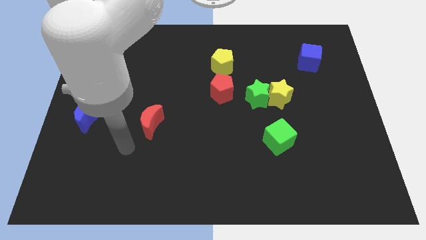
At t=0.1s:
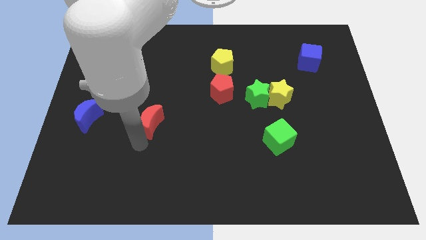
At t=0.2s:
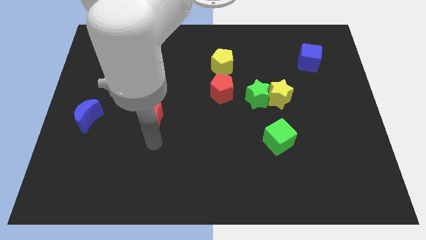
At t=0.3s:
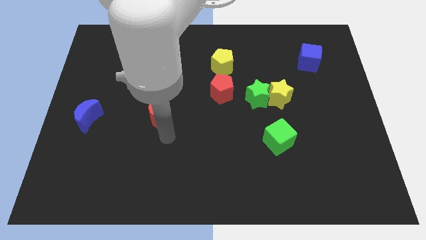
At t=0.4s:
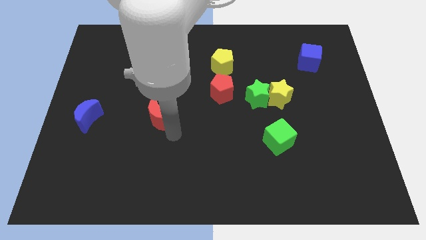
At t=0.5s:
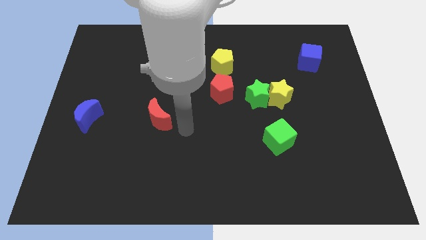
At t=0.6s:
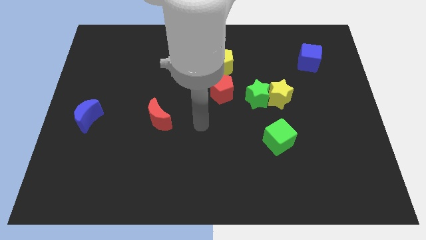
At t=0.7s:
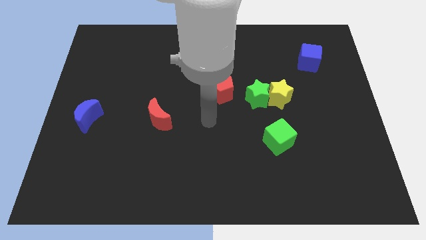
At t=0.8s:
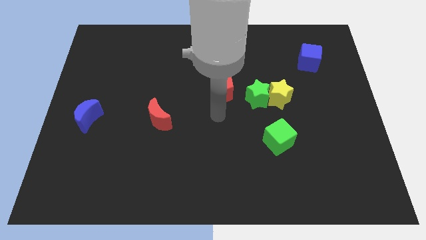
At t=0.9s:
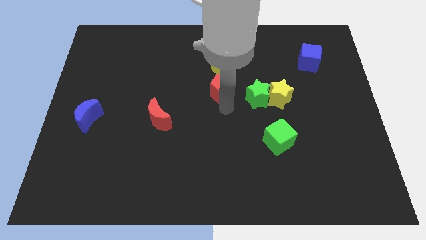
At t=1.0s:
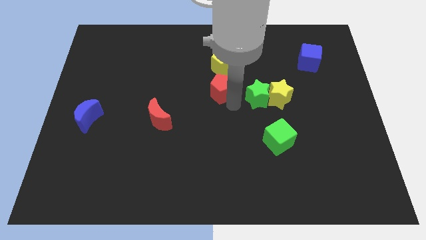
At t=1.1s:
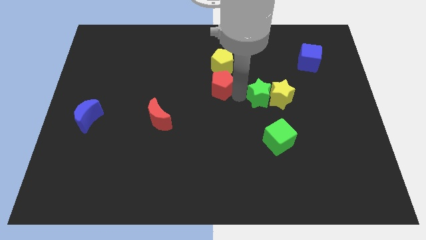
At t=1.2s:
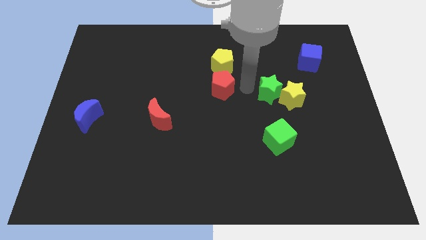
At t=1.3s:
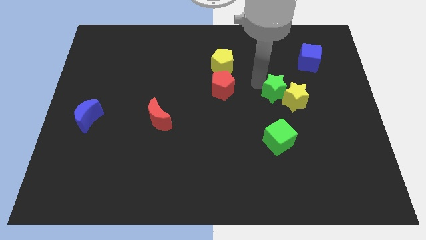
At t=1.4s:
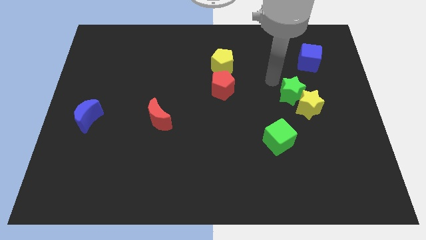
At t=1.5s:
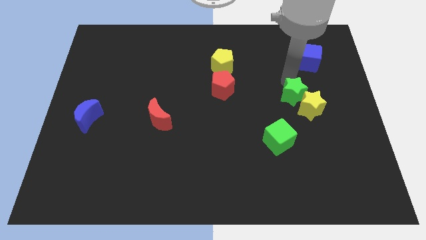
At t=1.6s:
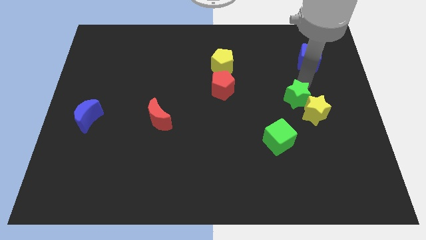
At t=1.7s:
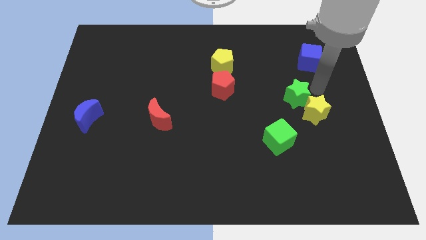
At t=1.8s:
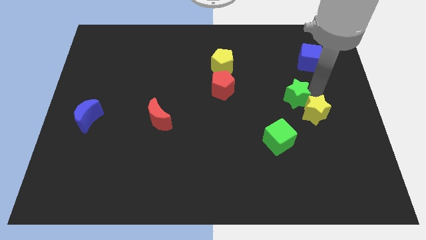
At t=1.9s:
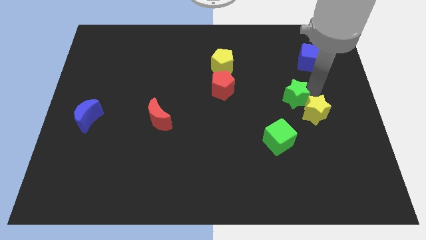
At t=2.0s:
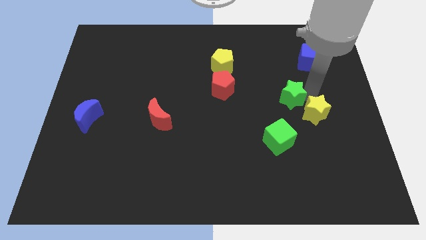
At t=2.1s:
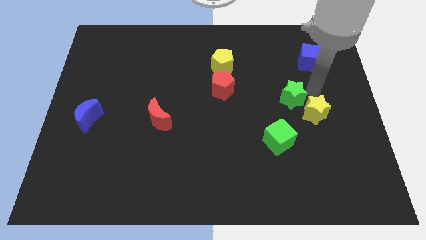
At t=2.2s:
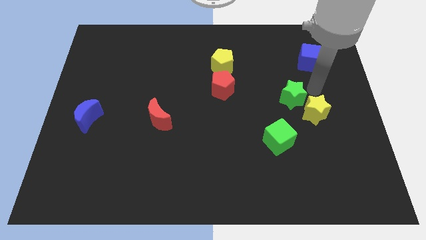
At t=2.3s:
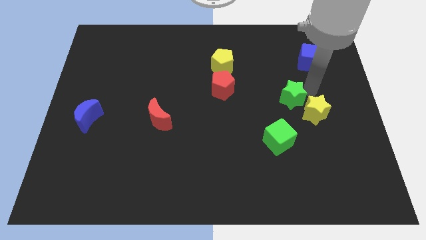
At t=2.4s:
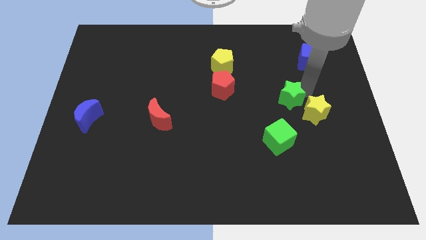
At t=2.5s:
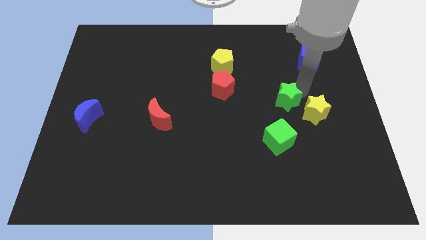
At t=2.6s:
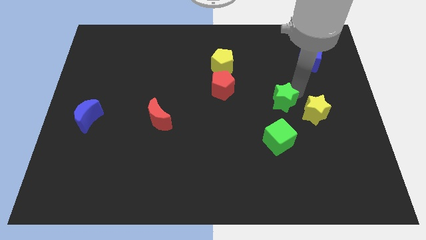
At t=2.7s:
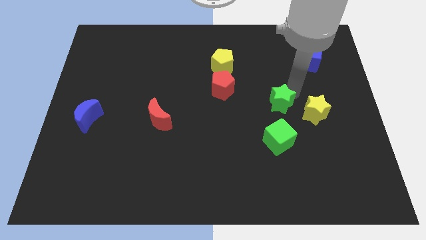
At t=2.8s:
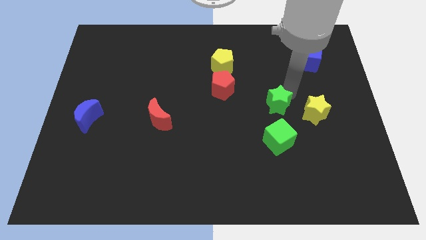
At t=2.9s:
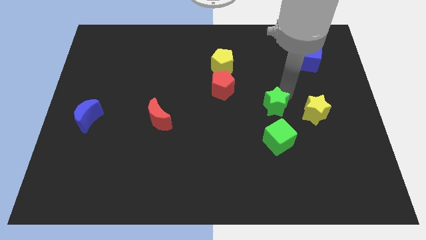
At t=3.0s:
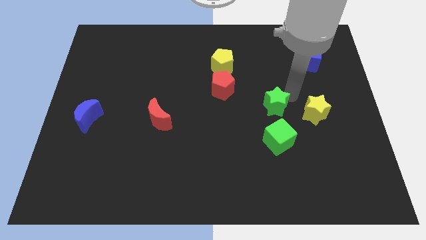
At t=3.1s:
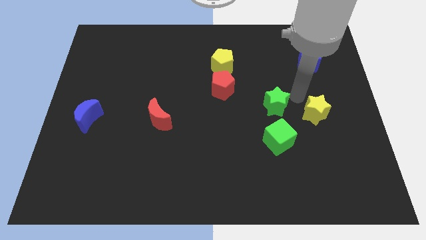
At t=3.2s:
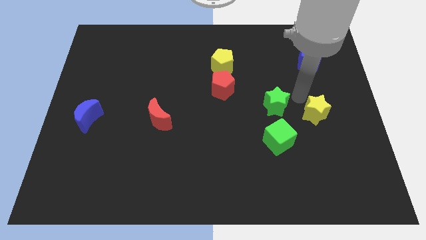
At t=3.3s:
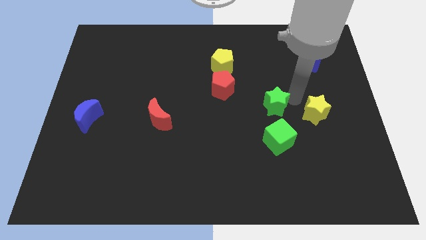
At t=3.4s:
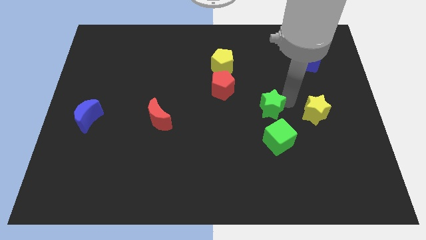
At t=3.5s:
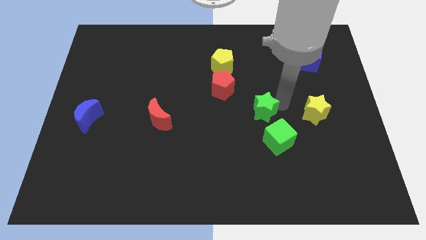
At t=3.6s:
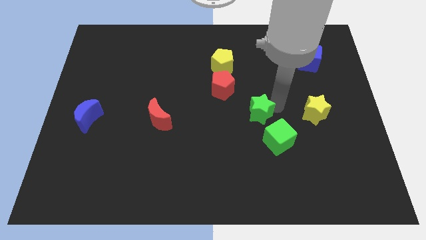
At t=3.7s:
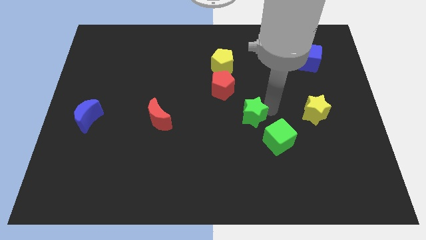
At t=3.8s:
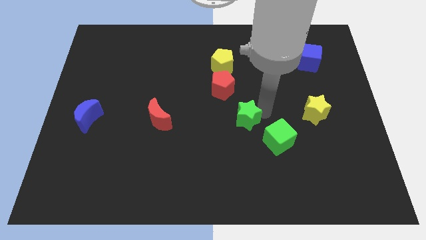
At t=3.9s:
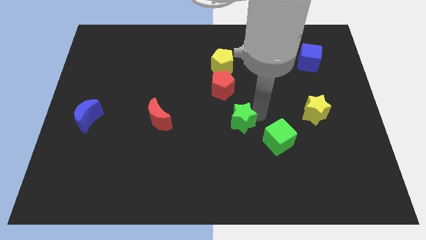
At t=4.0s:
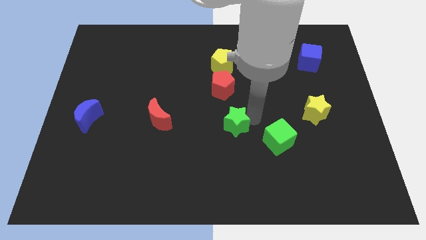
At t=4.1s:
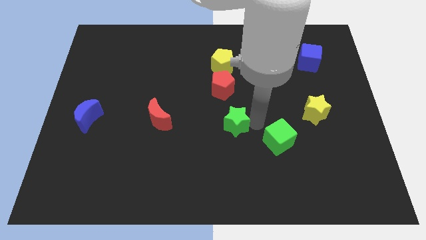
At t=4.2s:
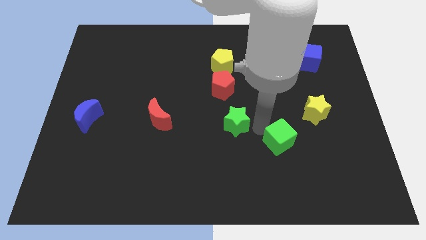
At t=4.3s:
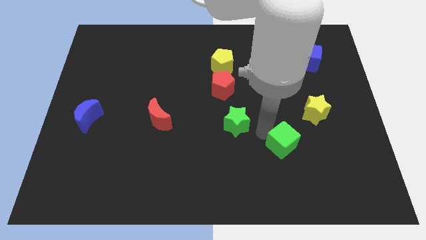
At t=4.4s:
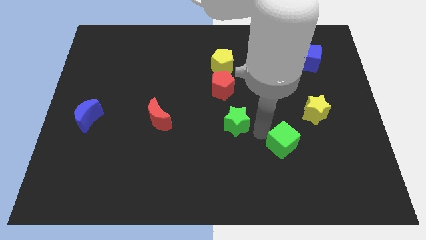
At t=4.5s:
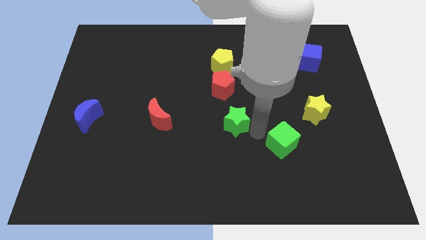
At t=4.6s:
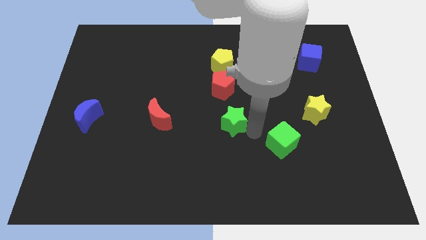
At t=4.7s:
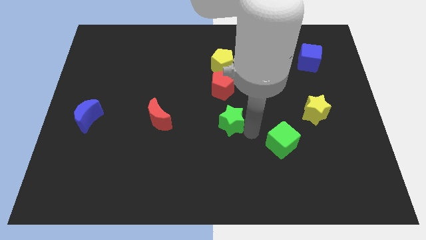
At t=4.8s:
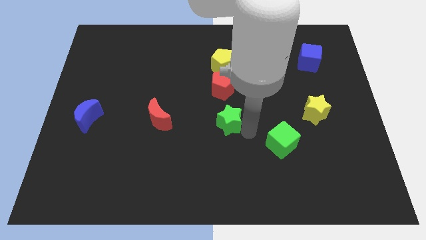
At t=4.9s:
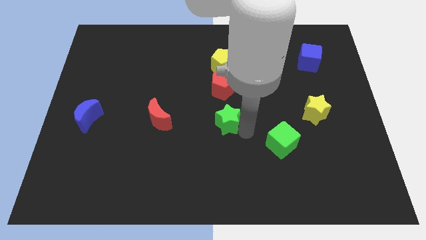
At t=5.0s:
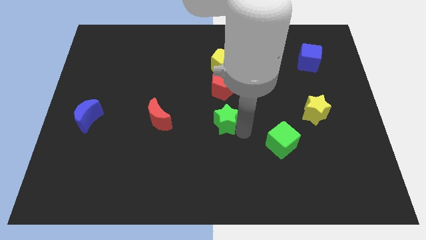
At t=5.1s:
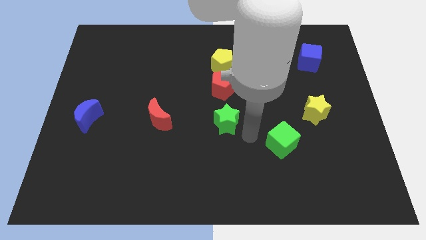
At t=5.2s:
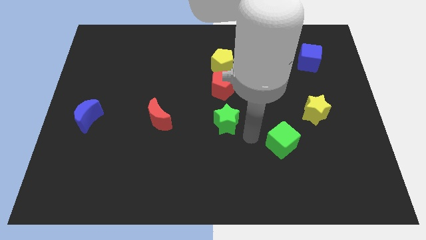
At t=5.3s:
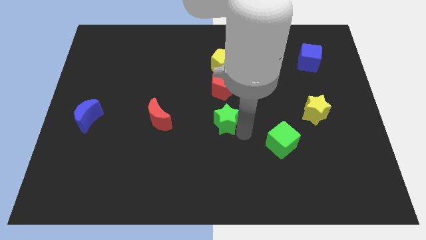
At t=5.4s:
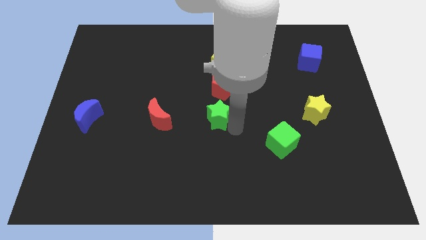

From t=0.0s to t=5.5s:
slide the green star a little left

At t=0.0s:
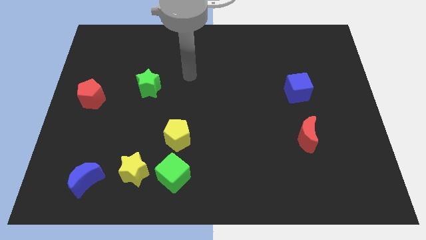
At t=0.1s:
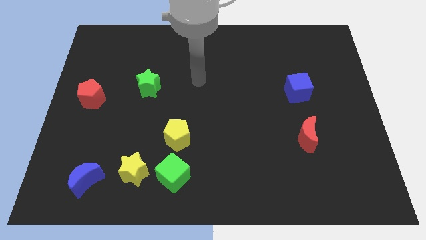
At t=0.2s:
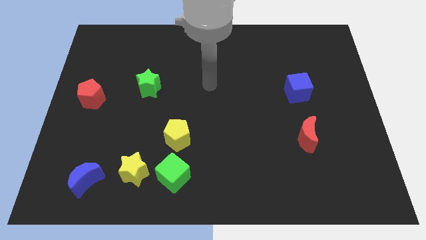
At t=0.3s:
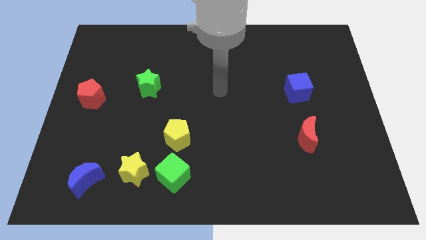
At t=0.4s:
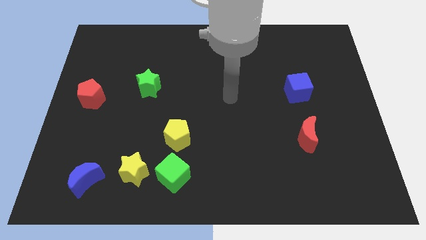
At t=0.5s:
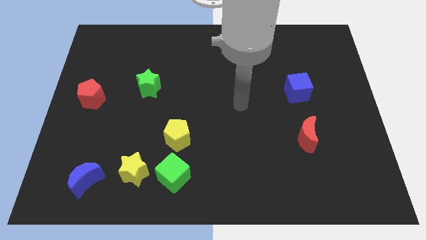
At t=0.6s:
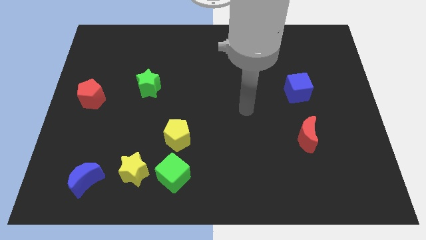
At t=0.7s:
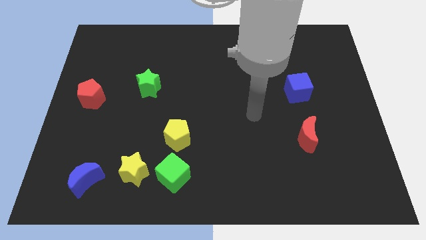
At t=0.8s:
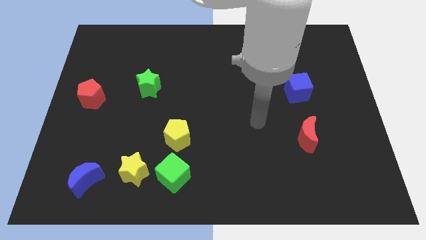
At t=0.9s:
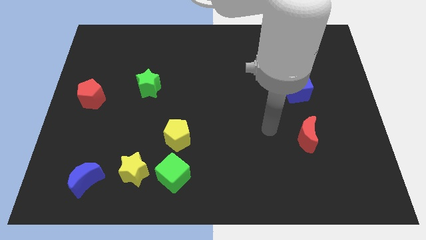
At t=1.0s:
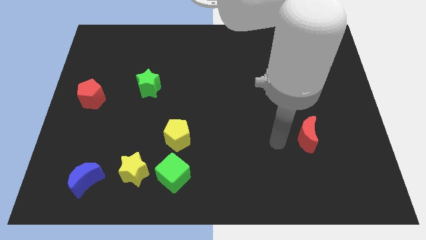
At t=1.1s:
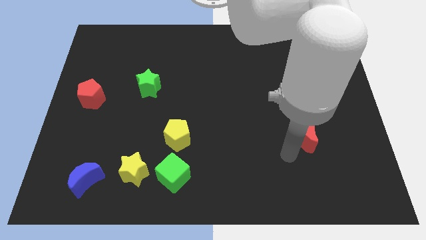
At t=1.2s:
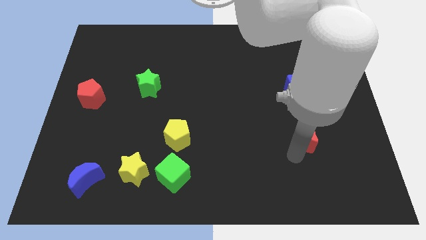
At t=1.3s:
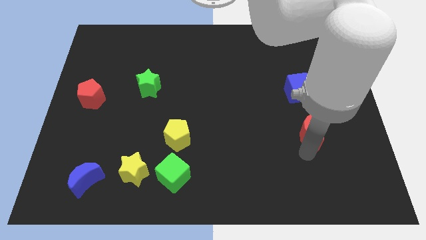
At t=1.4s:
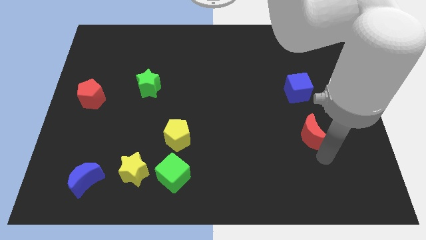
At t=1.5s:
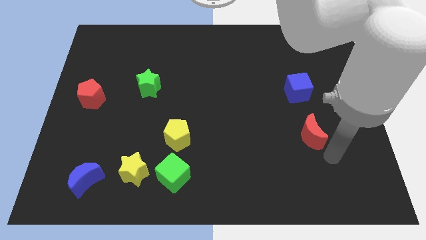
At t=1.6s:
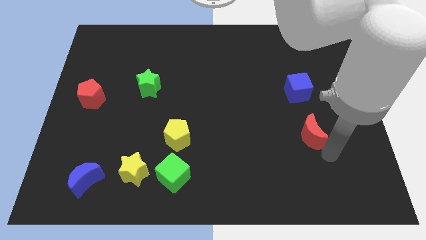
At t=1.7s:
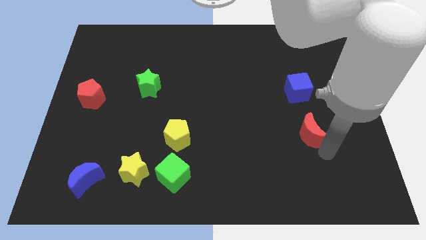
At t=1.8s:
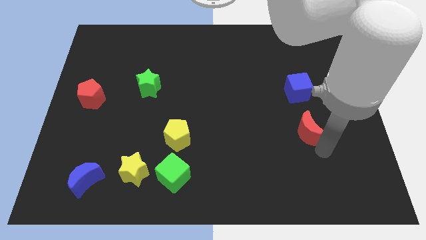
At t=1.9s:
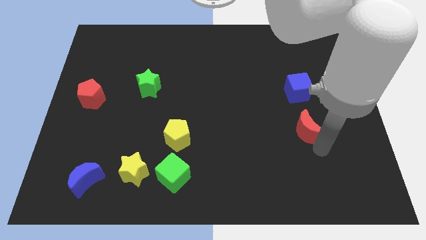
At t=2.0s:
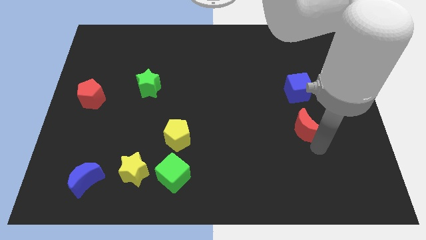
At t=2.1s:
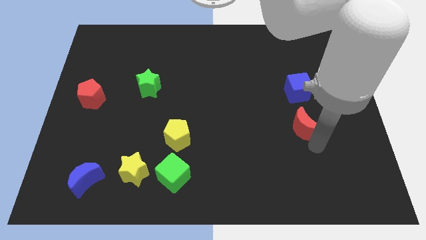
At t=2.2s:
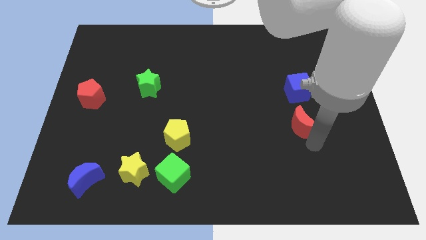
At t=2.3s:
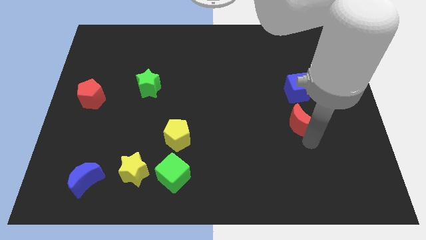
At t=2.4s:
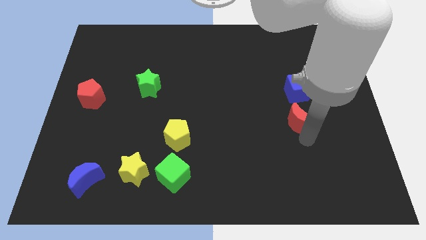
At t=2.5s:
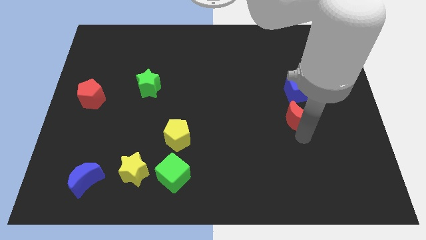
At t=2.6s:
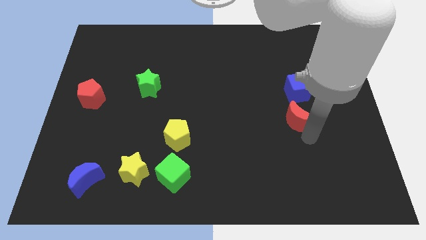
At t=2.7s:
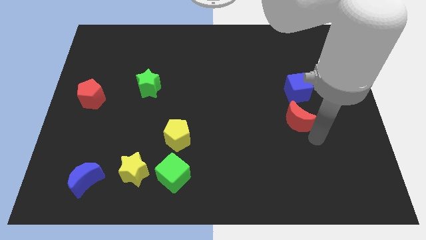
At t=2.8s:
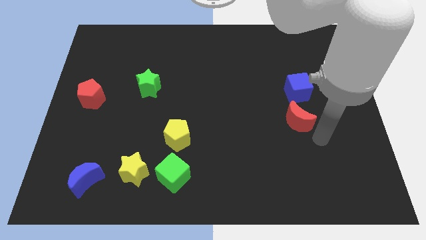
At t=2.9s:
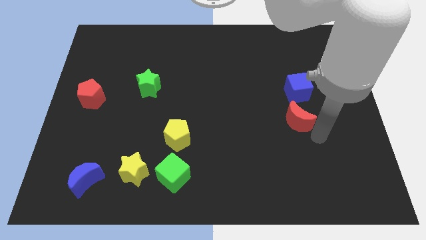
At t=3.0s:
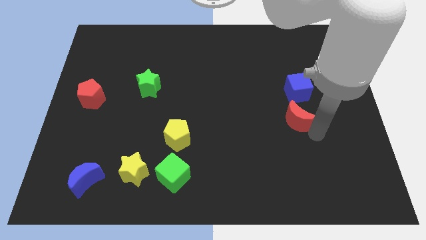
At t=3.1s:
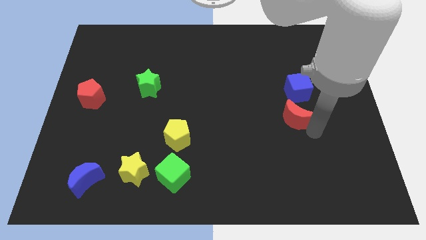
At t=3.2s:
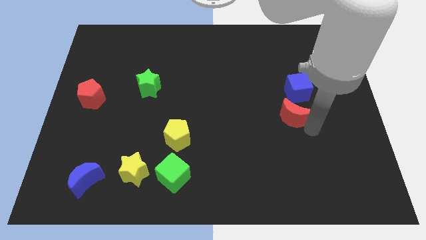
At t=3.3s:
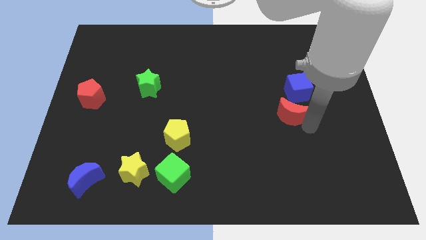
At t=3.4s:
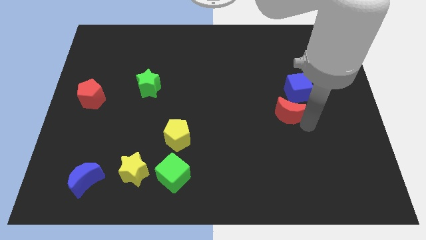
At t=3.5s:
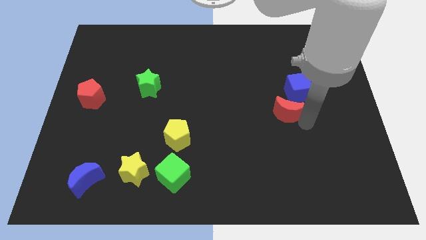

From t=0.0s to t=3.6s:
push the red moon somewhat up and to the left diagonally
